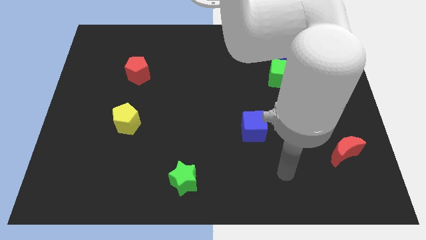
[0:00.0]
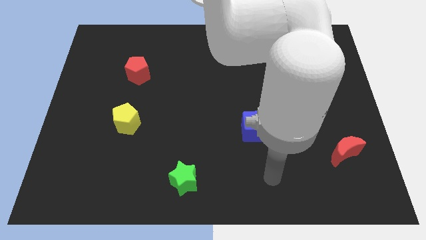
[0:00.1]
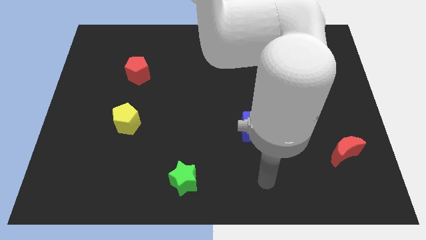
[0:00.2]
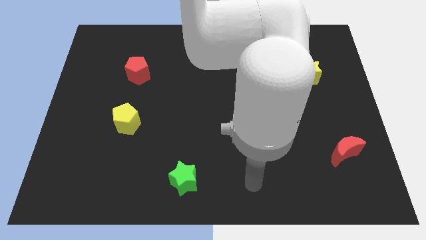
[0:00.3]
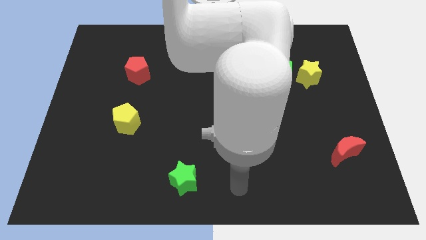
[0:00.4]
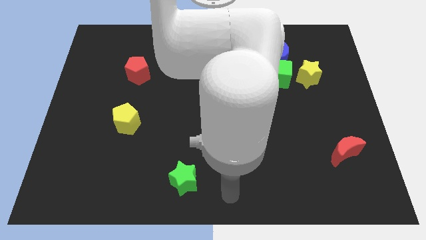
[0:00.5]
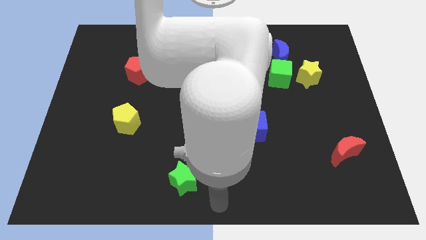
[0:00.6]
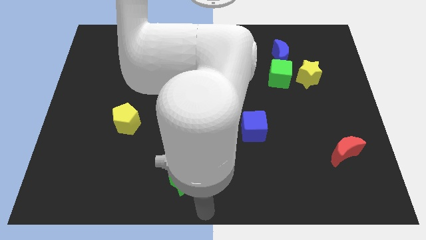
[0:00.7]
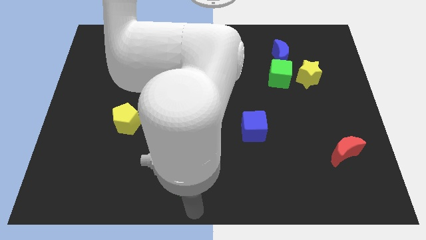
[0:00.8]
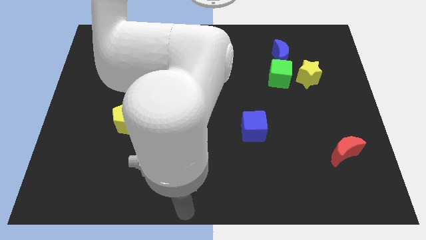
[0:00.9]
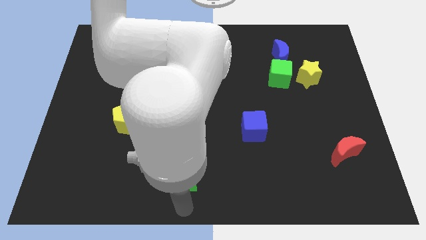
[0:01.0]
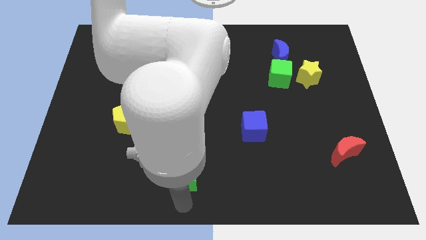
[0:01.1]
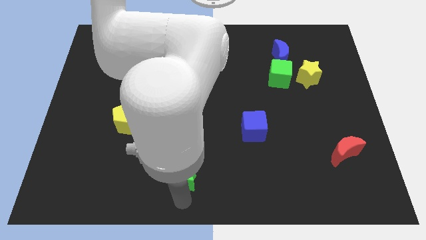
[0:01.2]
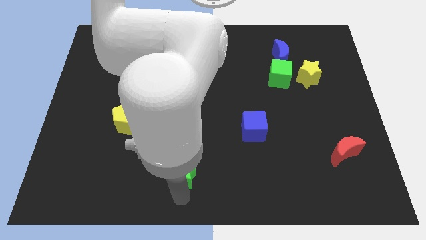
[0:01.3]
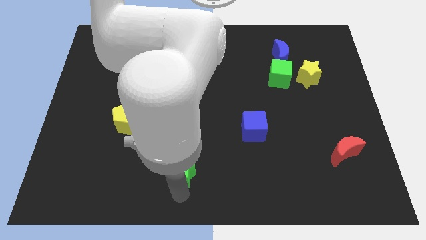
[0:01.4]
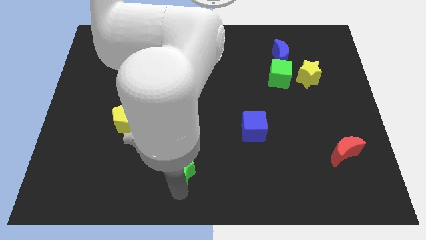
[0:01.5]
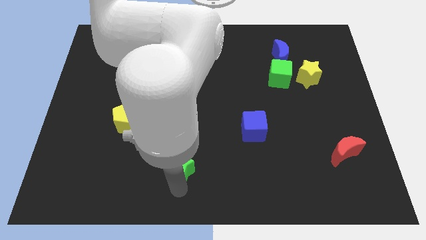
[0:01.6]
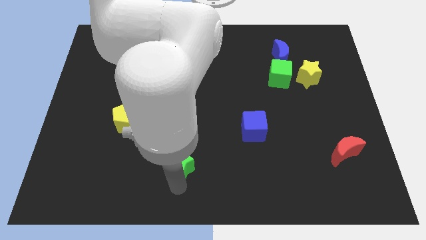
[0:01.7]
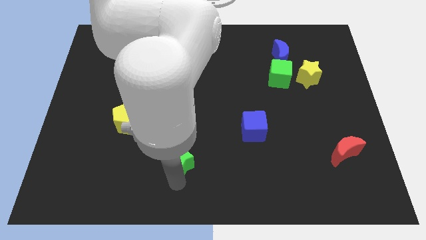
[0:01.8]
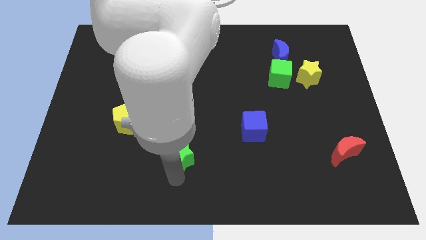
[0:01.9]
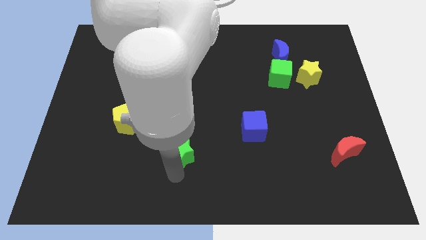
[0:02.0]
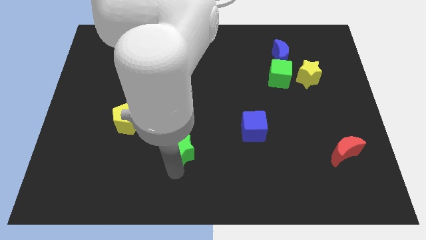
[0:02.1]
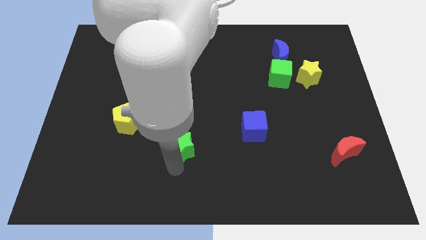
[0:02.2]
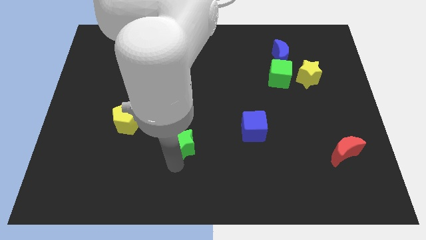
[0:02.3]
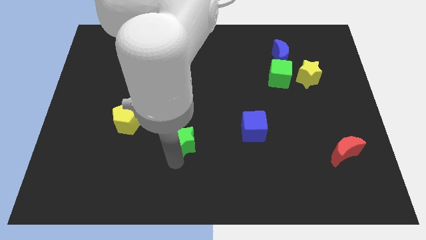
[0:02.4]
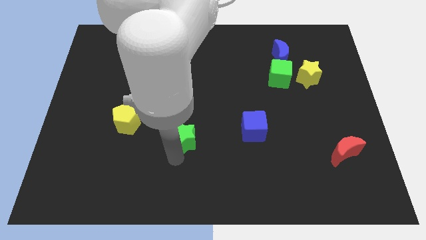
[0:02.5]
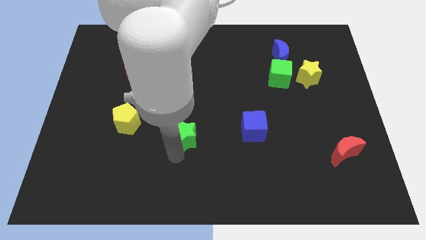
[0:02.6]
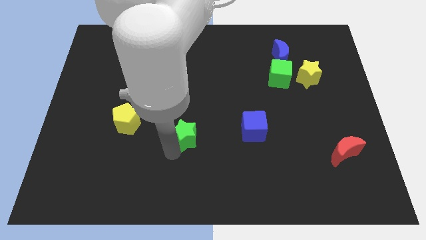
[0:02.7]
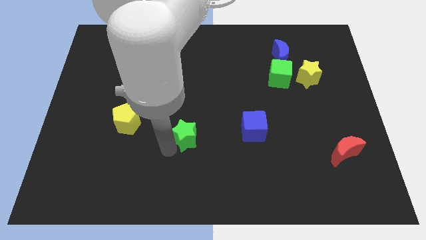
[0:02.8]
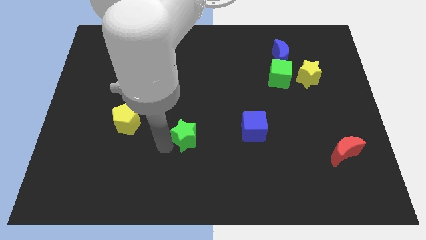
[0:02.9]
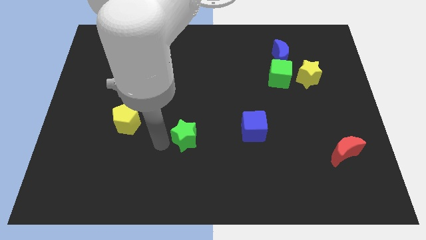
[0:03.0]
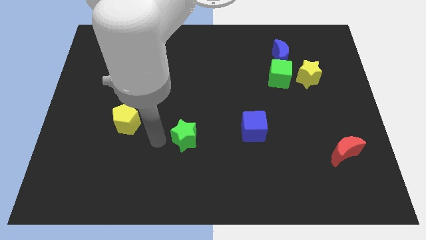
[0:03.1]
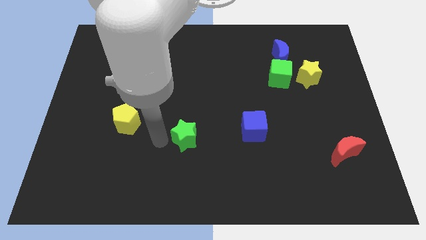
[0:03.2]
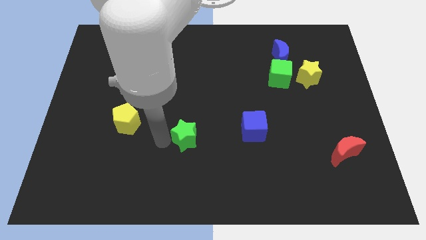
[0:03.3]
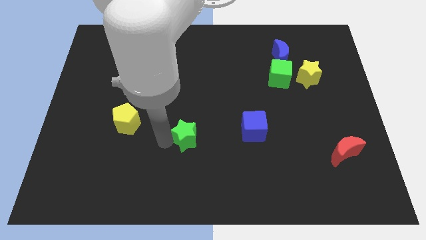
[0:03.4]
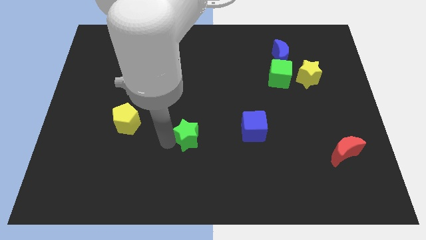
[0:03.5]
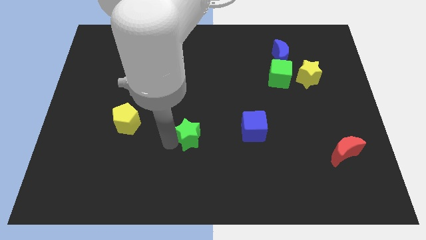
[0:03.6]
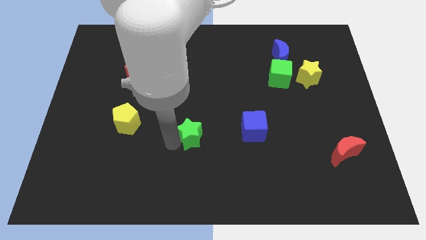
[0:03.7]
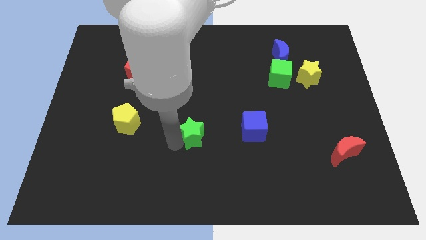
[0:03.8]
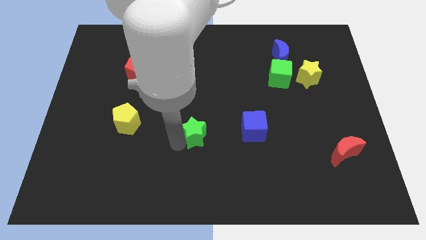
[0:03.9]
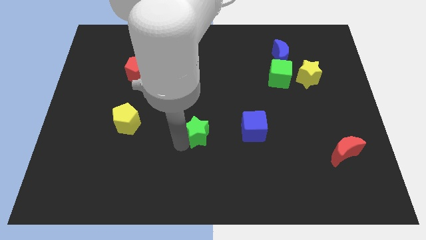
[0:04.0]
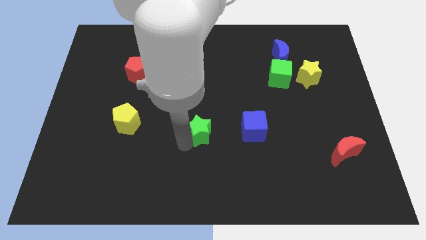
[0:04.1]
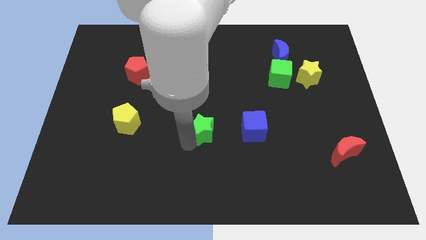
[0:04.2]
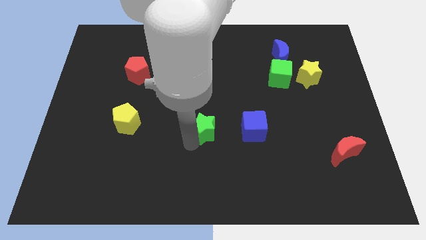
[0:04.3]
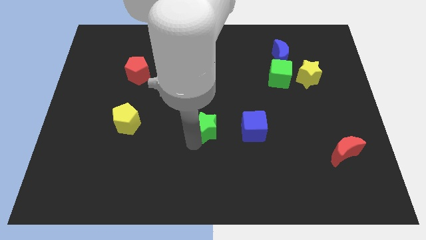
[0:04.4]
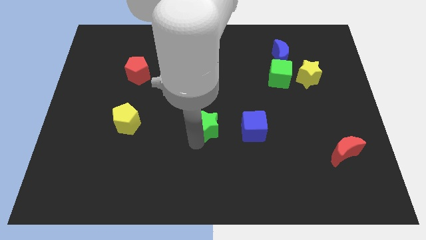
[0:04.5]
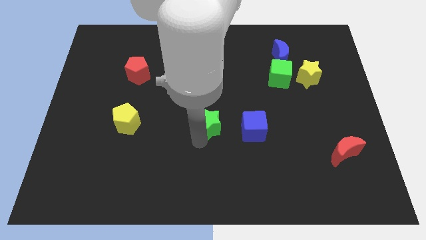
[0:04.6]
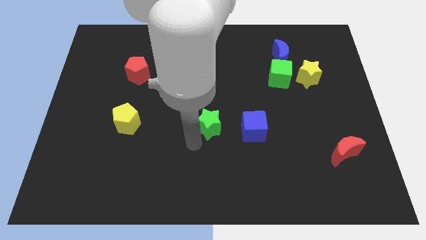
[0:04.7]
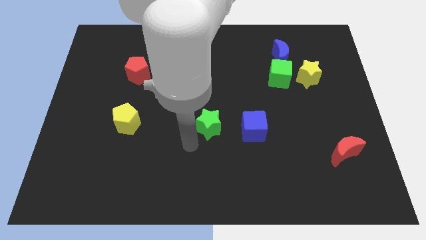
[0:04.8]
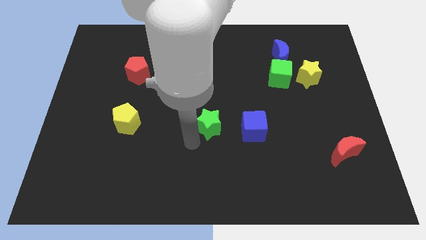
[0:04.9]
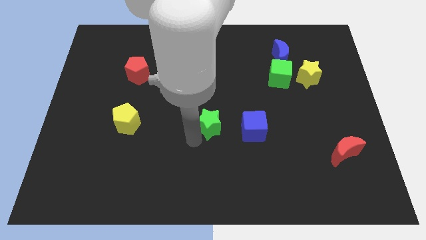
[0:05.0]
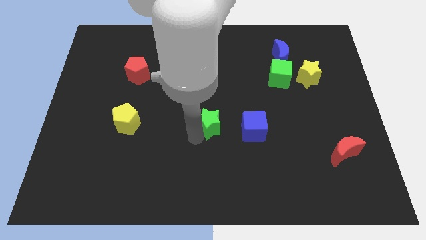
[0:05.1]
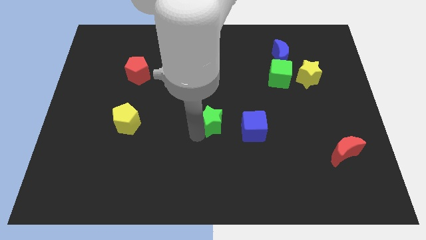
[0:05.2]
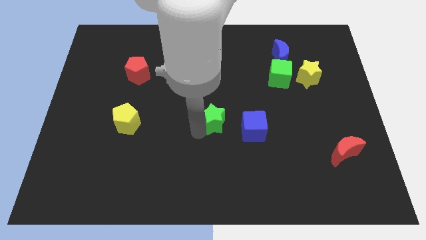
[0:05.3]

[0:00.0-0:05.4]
push the green star diagonally up and to the left of the blue cube

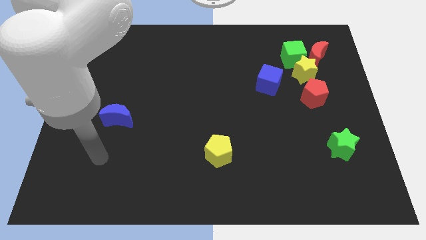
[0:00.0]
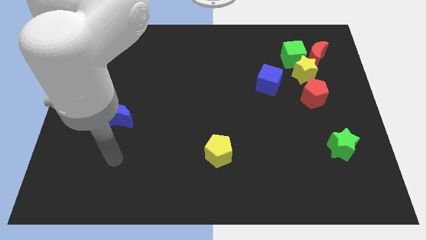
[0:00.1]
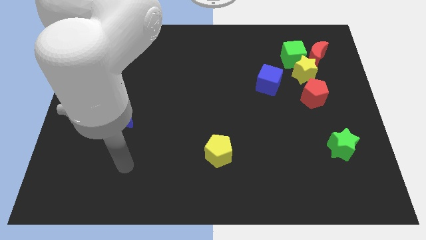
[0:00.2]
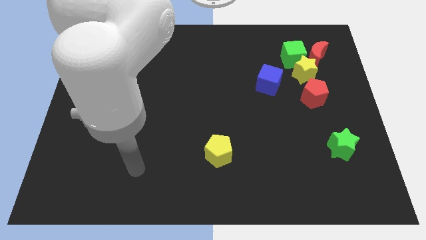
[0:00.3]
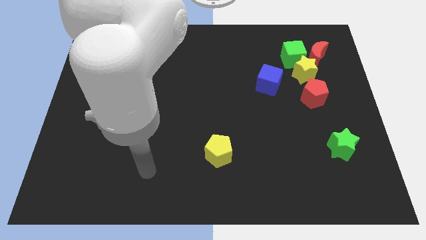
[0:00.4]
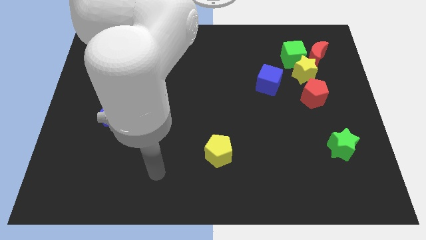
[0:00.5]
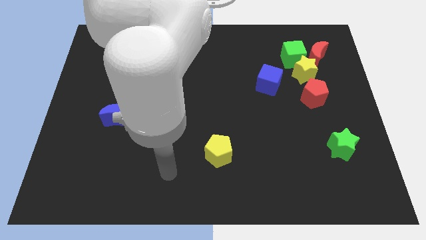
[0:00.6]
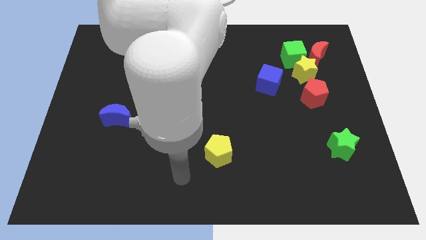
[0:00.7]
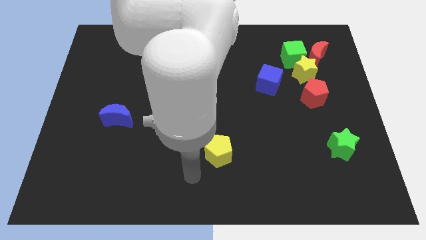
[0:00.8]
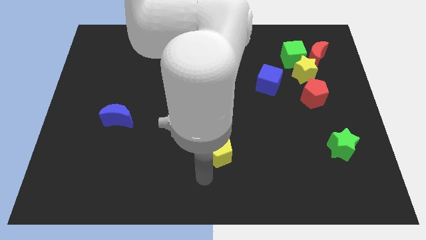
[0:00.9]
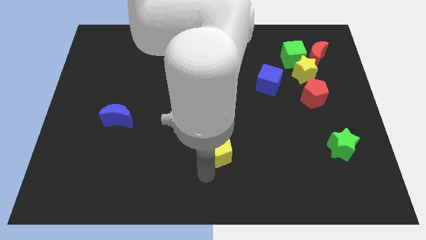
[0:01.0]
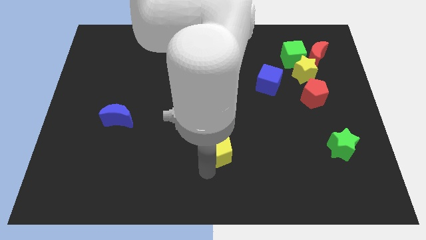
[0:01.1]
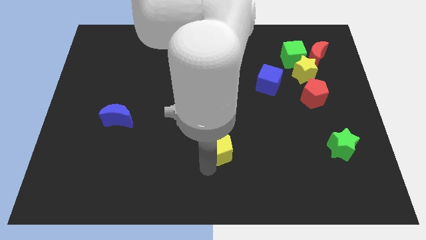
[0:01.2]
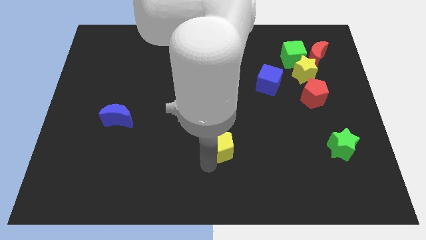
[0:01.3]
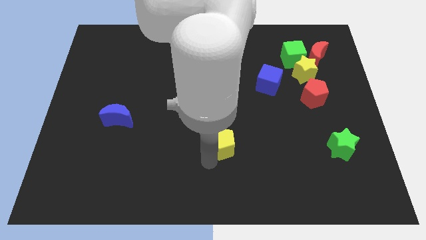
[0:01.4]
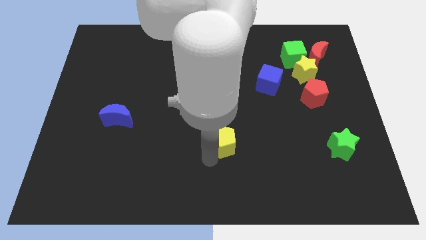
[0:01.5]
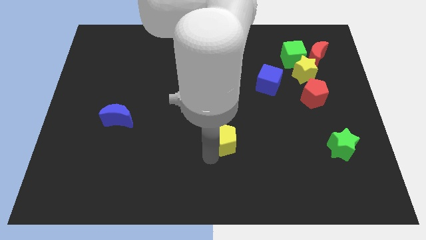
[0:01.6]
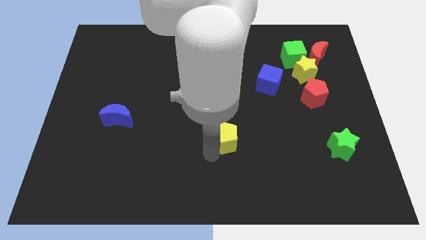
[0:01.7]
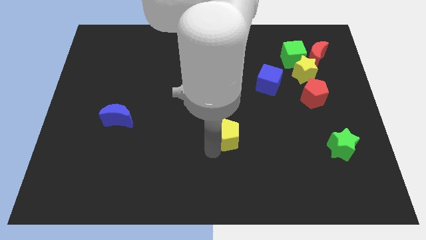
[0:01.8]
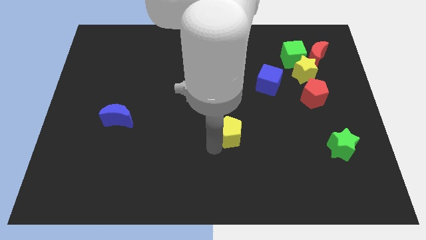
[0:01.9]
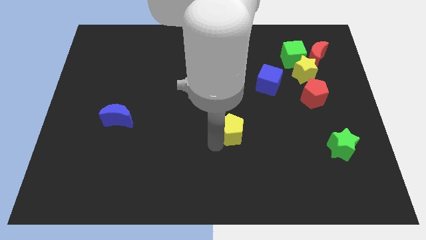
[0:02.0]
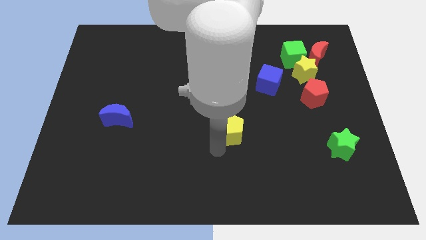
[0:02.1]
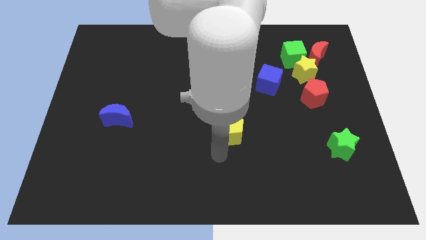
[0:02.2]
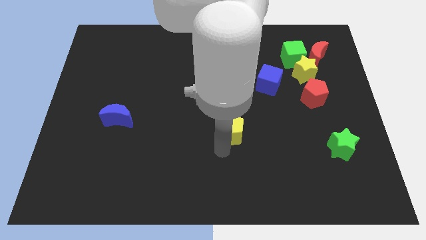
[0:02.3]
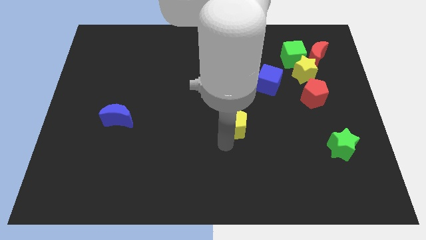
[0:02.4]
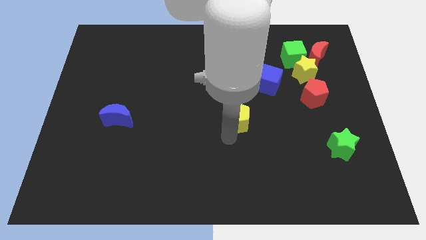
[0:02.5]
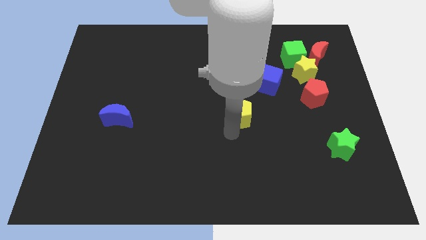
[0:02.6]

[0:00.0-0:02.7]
slide the yellow pentagon to the bottom left of the blue cube
